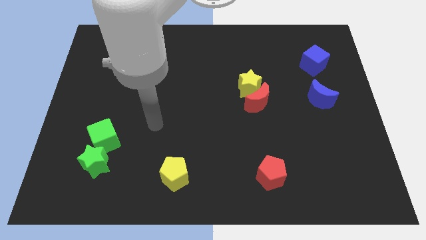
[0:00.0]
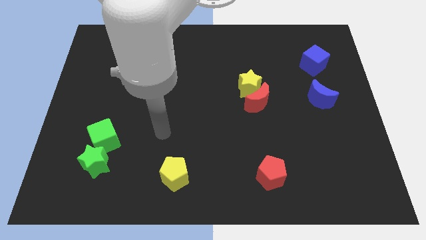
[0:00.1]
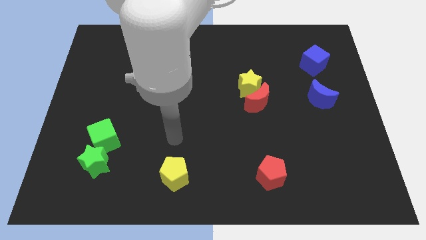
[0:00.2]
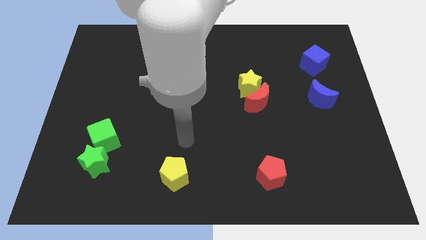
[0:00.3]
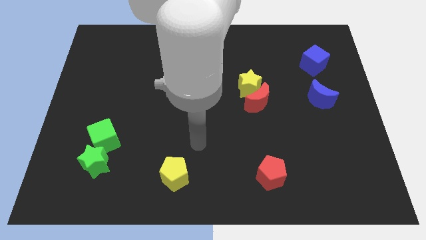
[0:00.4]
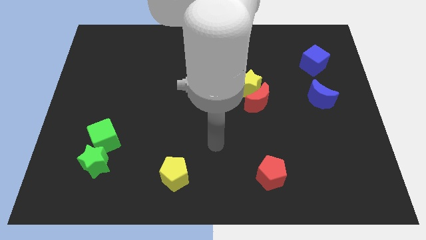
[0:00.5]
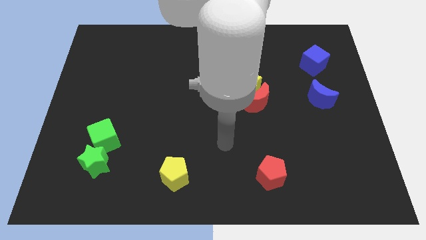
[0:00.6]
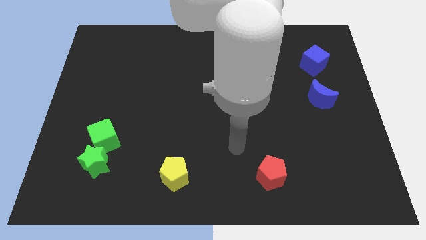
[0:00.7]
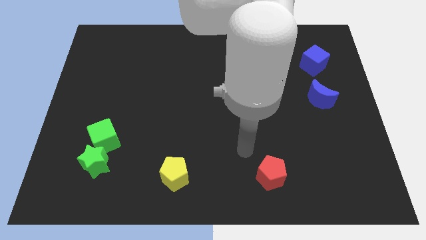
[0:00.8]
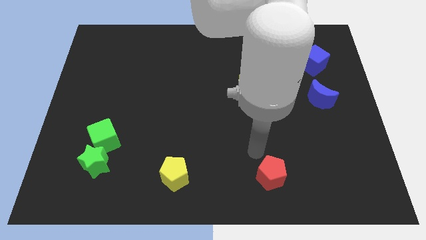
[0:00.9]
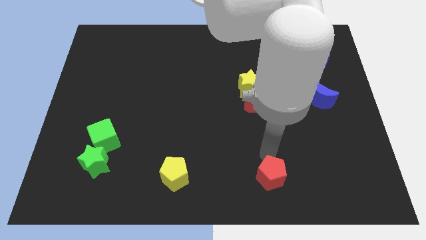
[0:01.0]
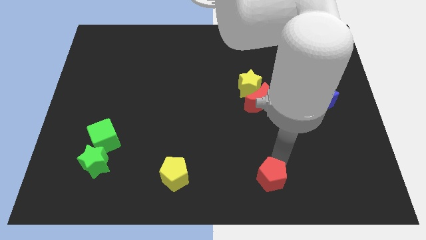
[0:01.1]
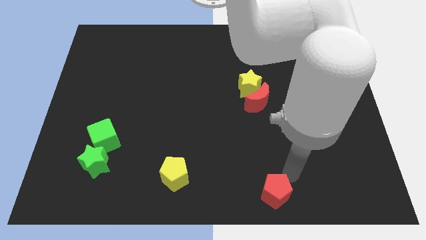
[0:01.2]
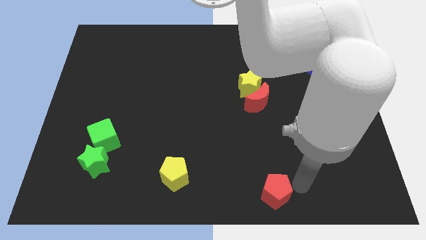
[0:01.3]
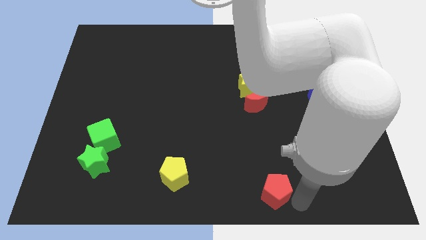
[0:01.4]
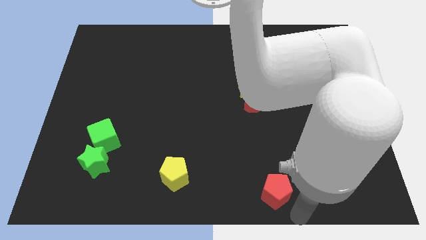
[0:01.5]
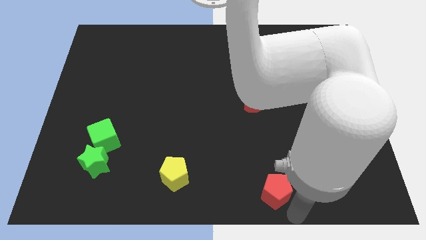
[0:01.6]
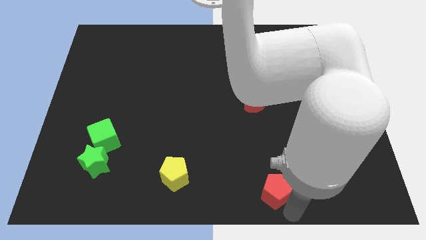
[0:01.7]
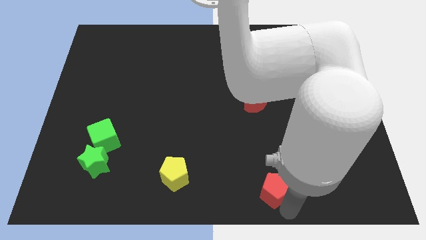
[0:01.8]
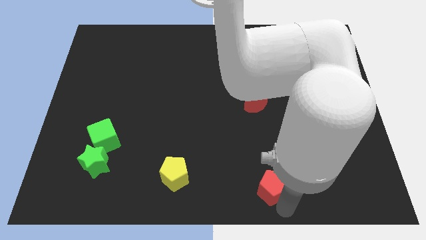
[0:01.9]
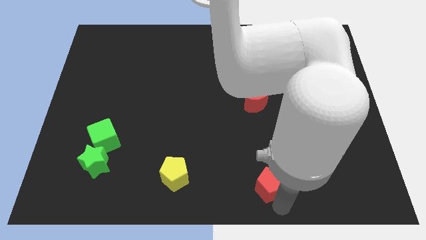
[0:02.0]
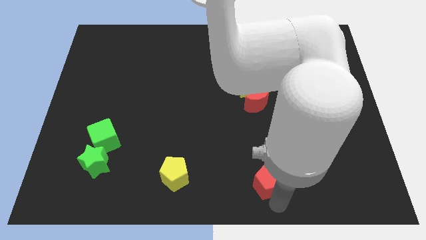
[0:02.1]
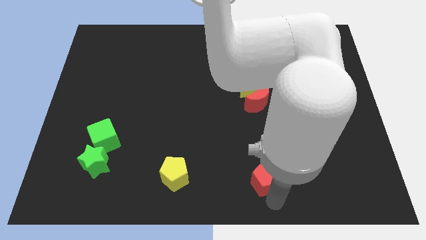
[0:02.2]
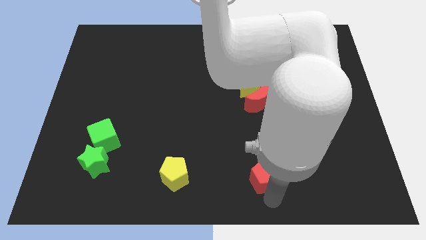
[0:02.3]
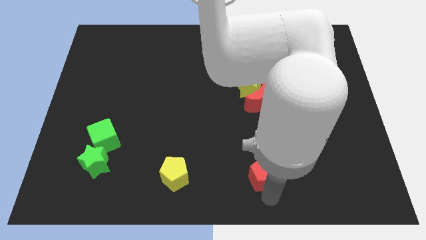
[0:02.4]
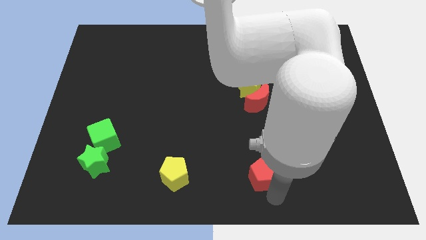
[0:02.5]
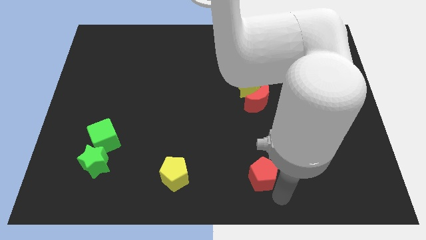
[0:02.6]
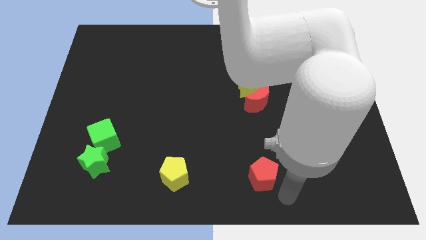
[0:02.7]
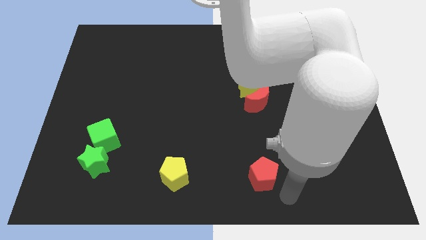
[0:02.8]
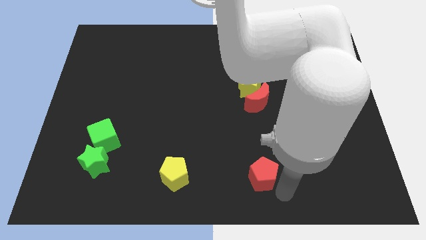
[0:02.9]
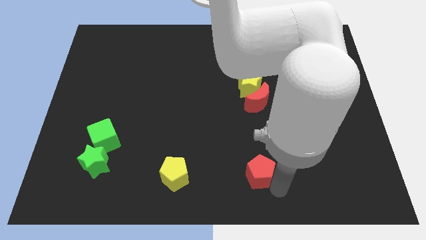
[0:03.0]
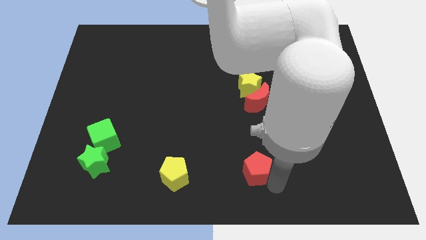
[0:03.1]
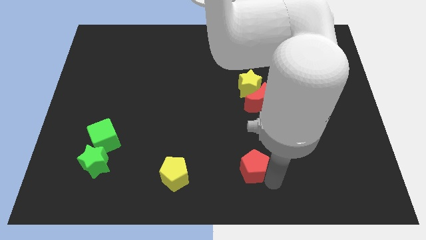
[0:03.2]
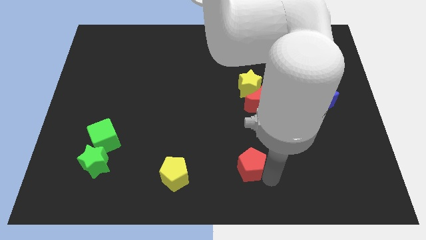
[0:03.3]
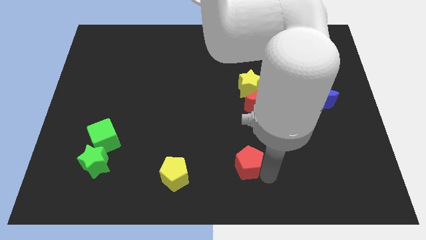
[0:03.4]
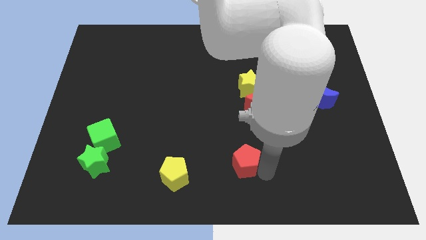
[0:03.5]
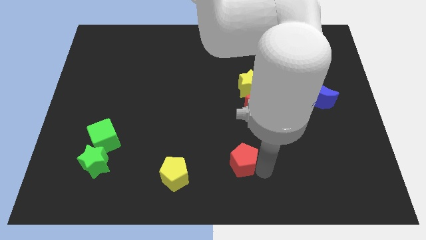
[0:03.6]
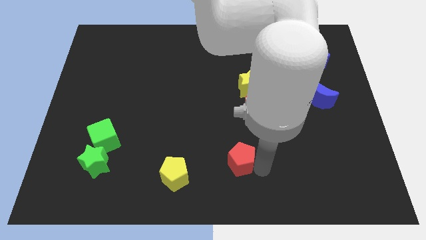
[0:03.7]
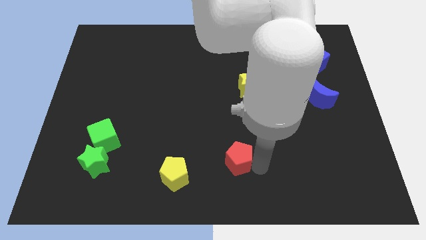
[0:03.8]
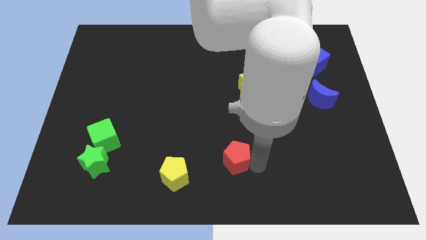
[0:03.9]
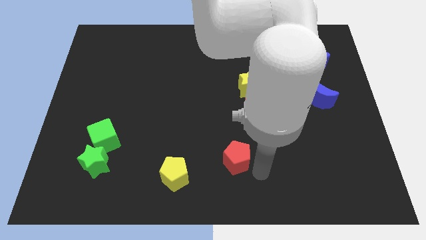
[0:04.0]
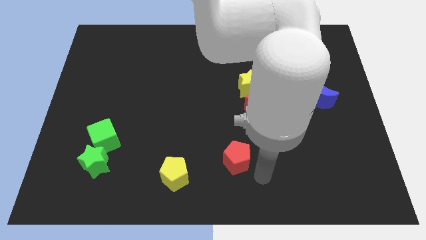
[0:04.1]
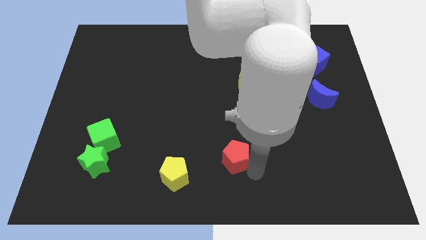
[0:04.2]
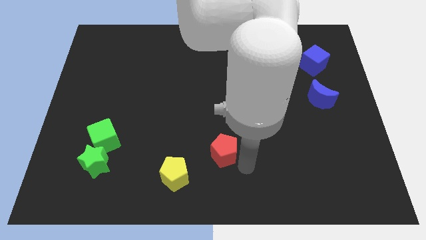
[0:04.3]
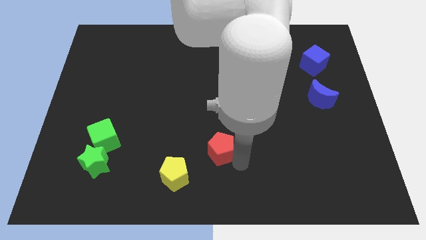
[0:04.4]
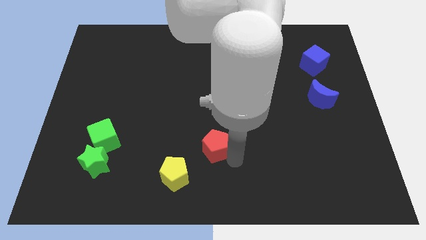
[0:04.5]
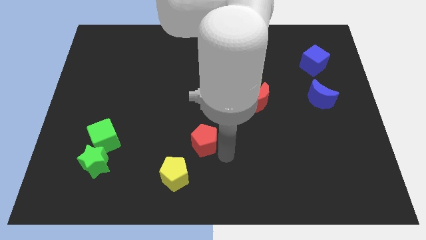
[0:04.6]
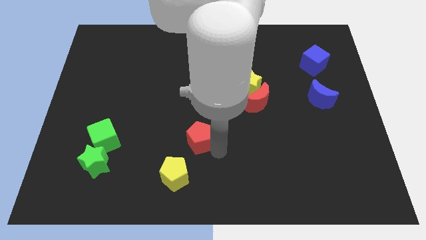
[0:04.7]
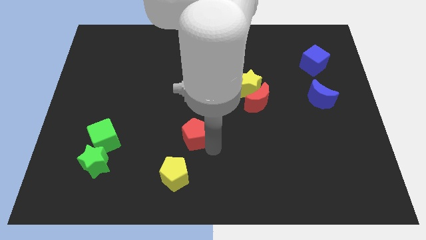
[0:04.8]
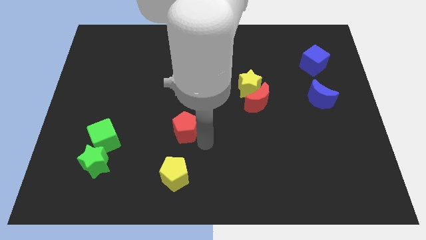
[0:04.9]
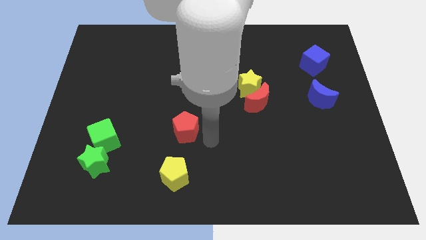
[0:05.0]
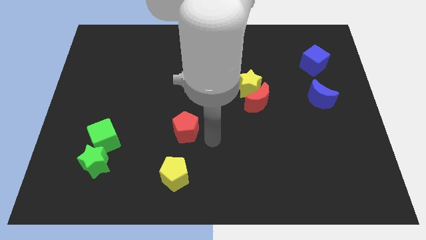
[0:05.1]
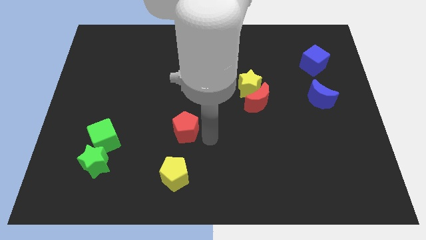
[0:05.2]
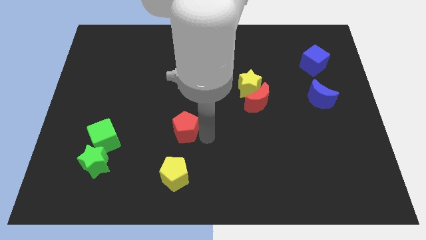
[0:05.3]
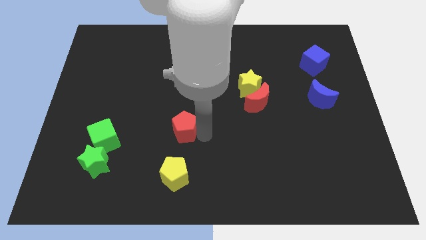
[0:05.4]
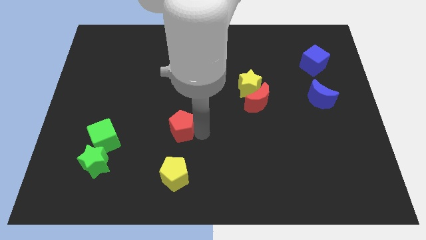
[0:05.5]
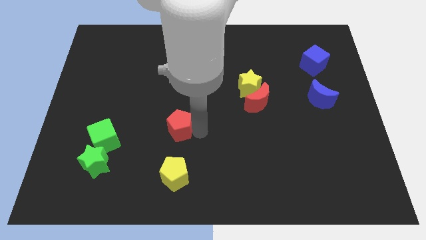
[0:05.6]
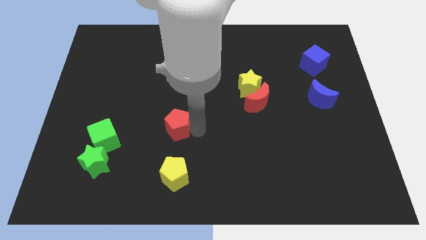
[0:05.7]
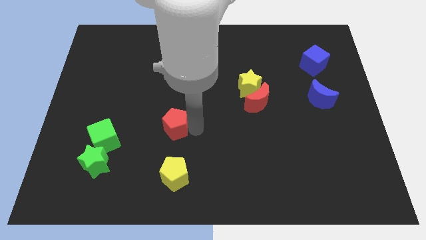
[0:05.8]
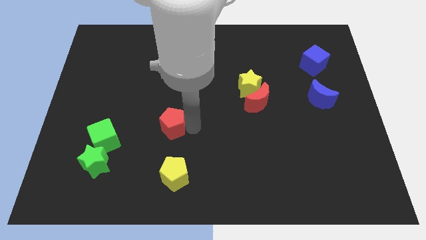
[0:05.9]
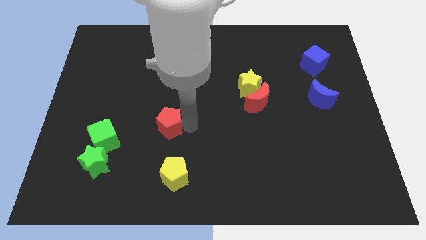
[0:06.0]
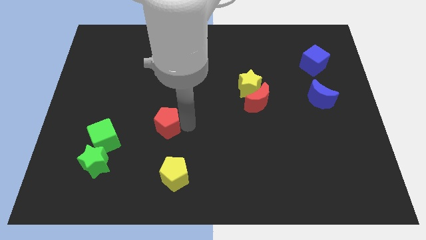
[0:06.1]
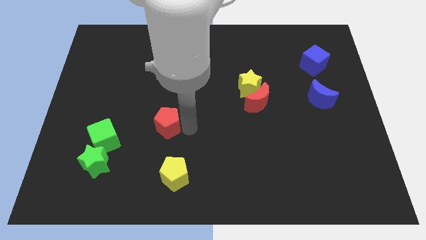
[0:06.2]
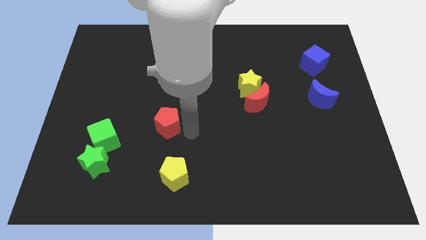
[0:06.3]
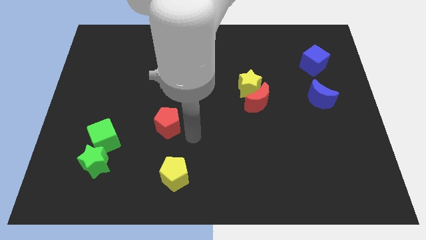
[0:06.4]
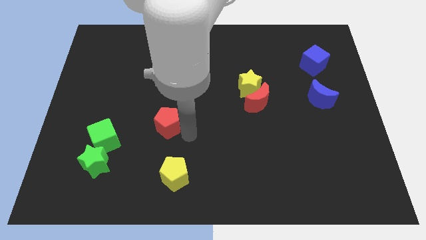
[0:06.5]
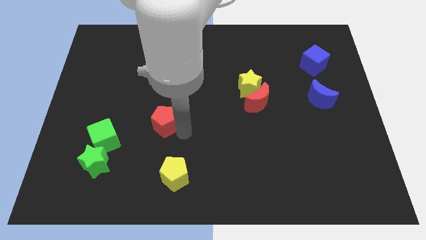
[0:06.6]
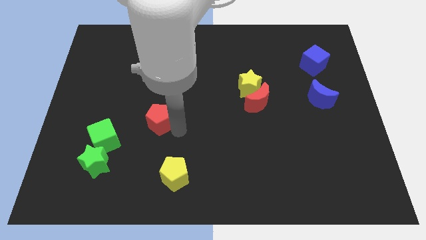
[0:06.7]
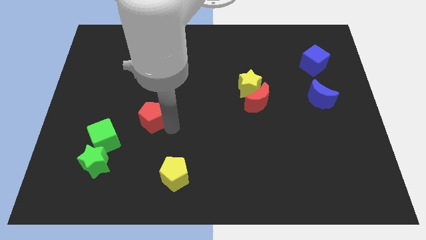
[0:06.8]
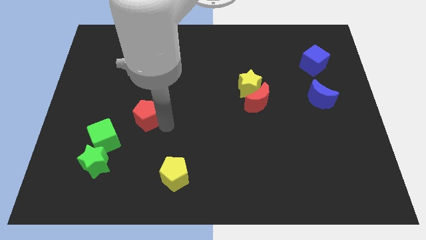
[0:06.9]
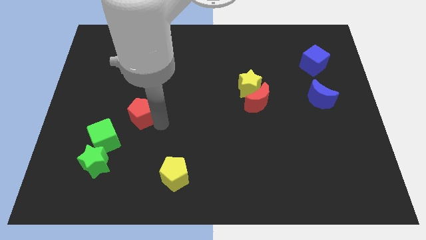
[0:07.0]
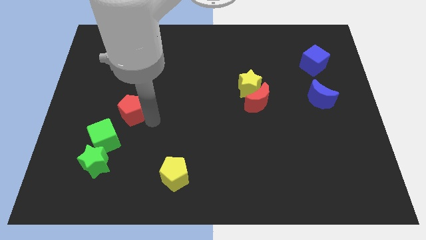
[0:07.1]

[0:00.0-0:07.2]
move the red pentagon above the green cube

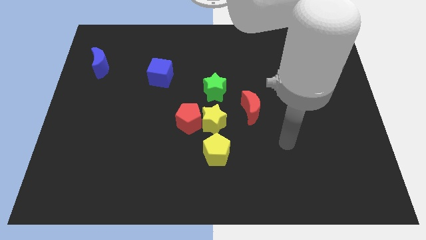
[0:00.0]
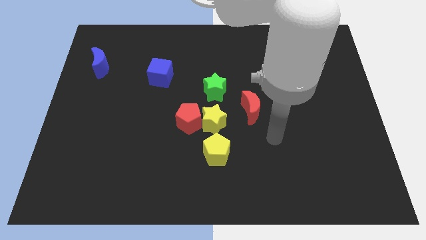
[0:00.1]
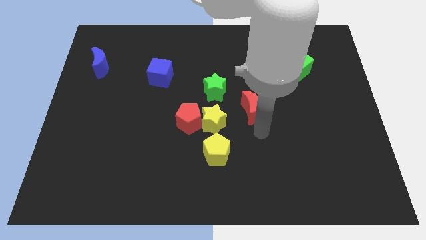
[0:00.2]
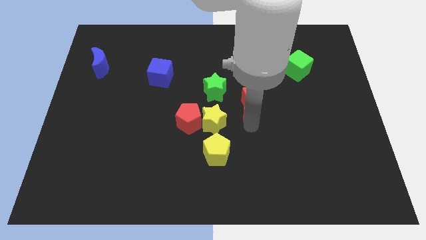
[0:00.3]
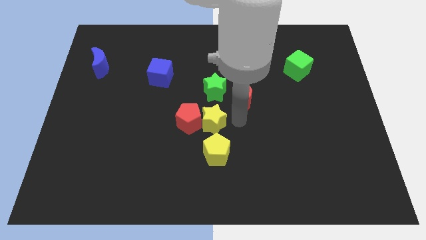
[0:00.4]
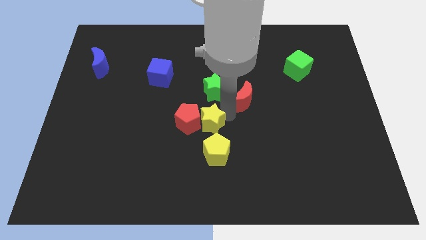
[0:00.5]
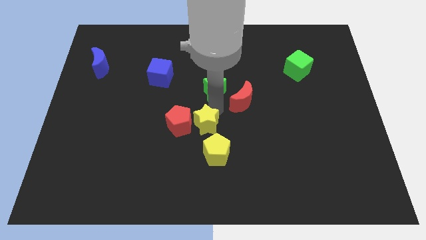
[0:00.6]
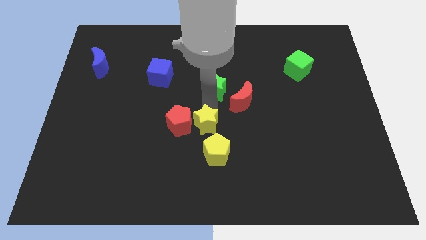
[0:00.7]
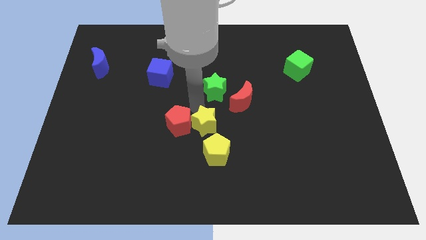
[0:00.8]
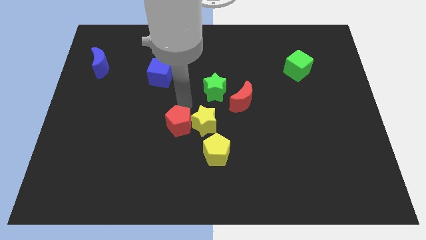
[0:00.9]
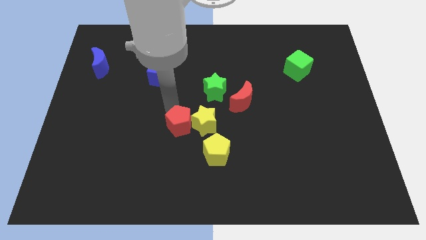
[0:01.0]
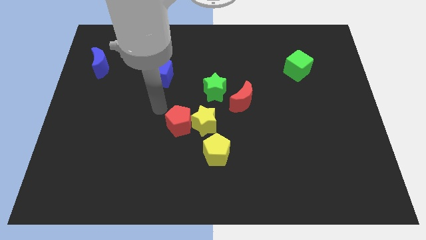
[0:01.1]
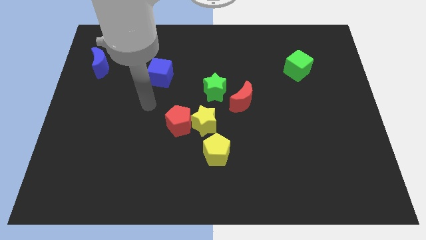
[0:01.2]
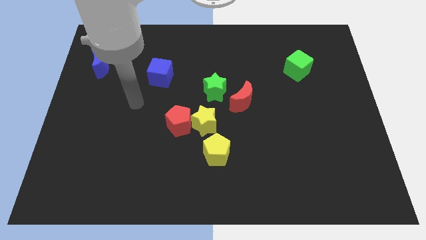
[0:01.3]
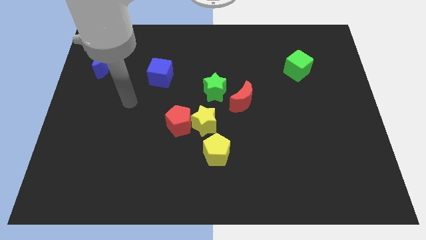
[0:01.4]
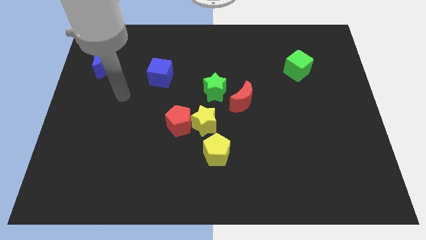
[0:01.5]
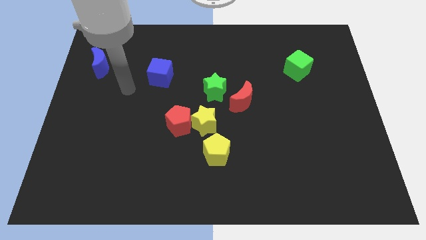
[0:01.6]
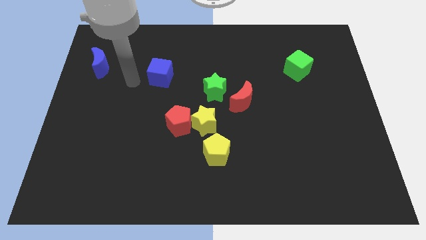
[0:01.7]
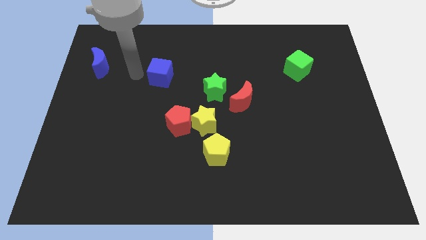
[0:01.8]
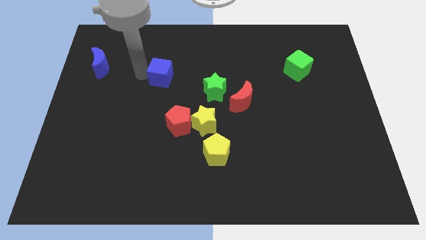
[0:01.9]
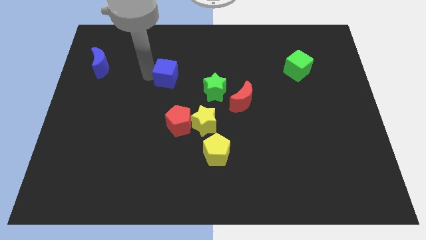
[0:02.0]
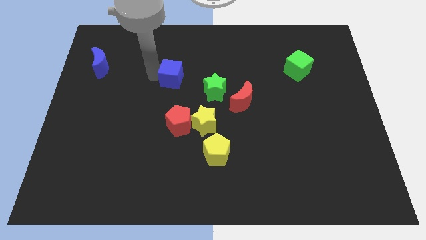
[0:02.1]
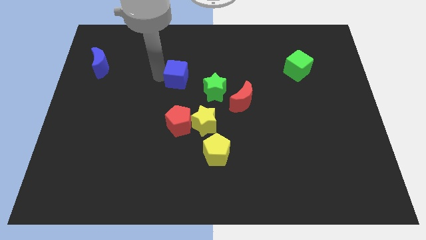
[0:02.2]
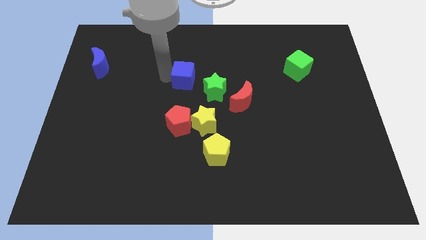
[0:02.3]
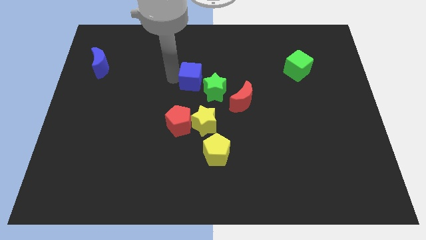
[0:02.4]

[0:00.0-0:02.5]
move the blue cube to the top side of the yellow star
